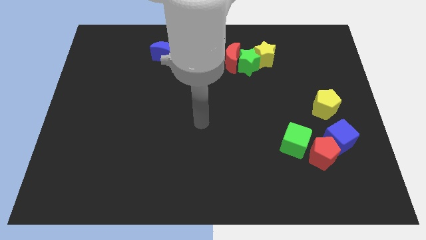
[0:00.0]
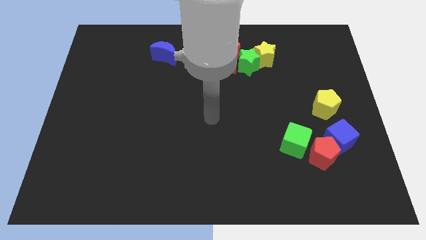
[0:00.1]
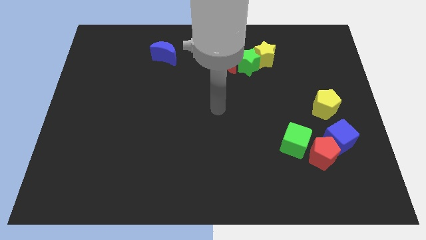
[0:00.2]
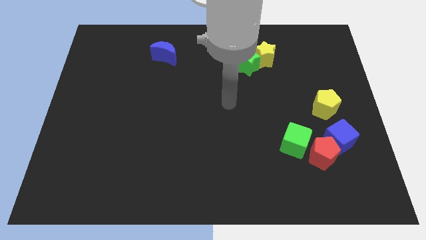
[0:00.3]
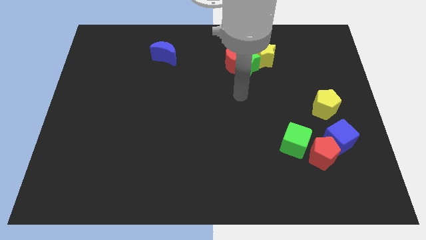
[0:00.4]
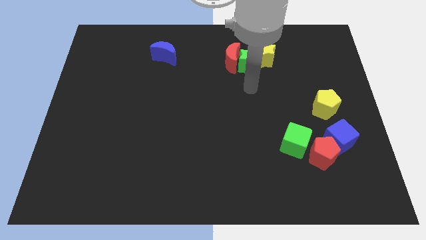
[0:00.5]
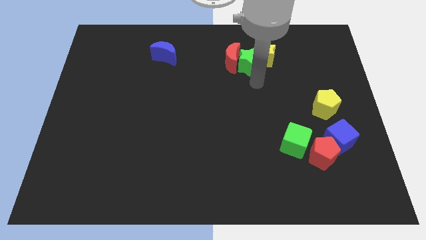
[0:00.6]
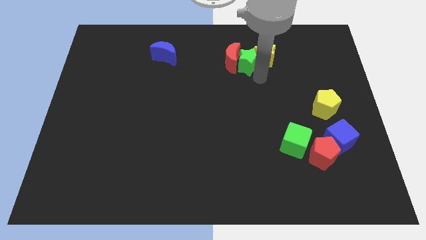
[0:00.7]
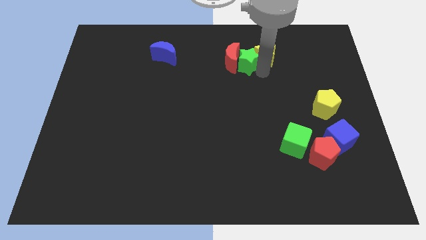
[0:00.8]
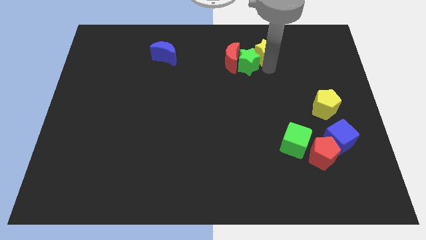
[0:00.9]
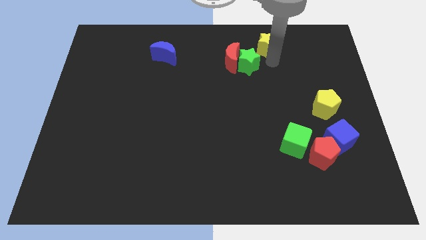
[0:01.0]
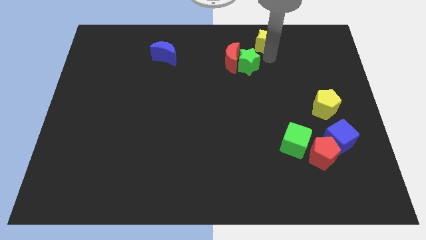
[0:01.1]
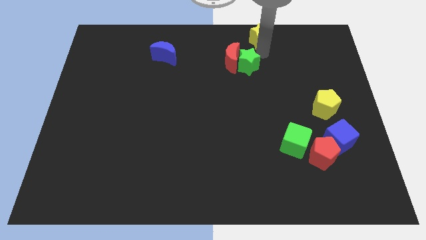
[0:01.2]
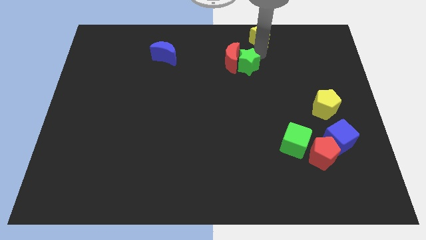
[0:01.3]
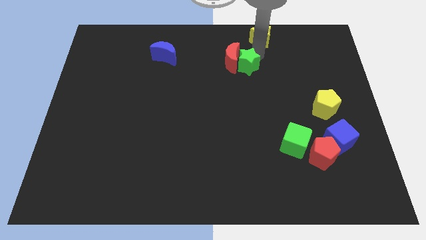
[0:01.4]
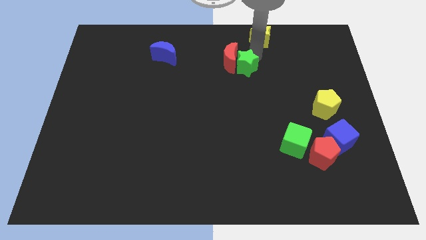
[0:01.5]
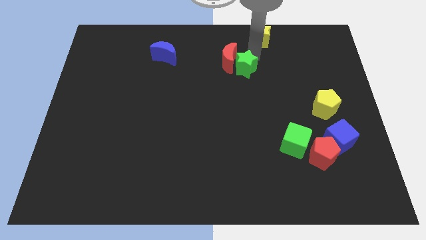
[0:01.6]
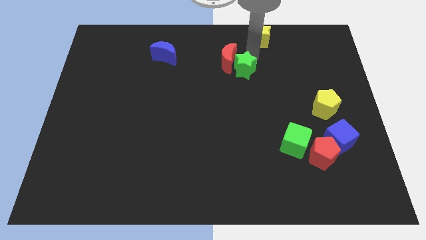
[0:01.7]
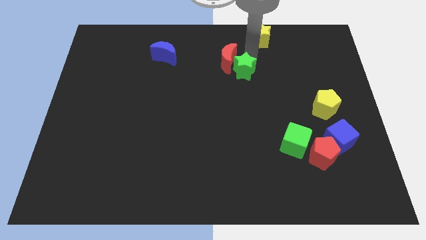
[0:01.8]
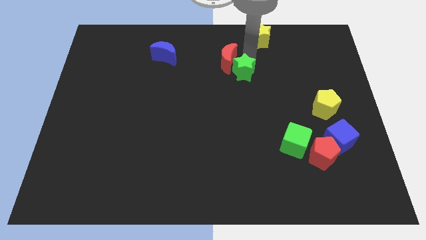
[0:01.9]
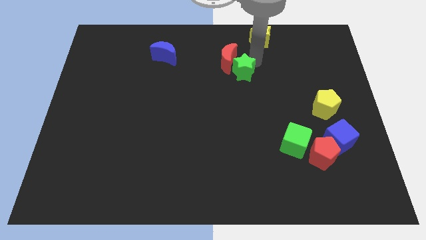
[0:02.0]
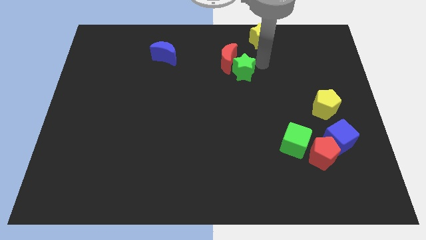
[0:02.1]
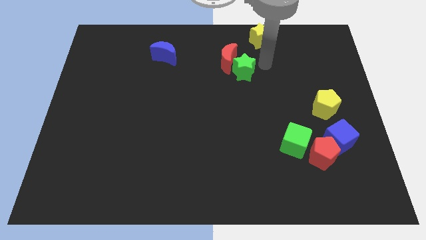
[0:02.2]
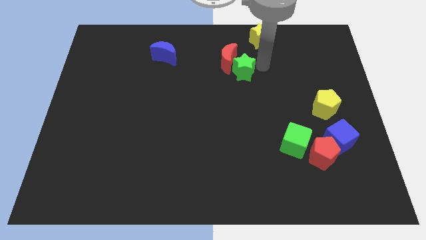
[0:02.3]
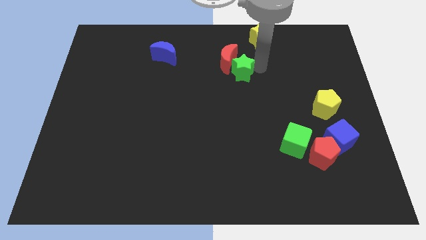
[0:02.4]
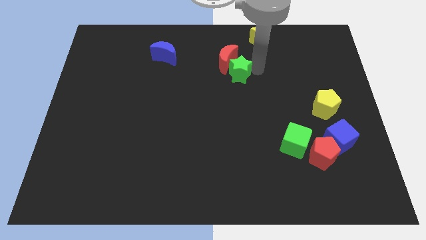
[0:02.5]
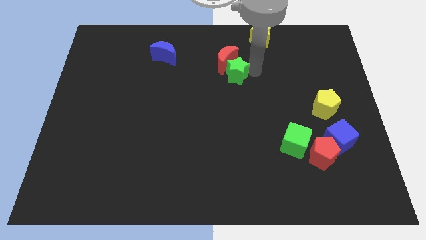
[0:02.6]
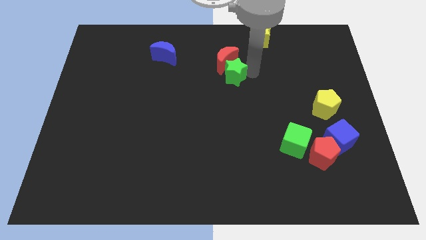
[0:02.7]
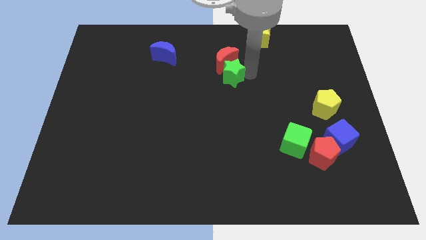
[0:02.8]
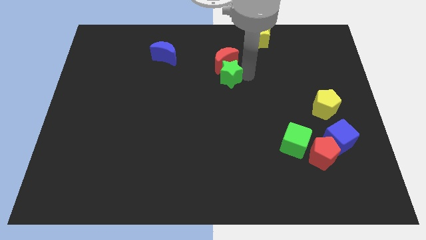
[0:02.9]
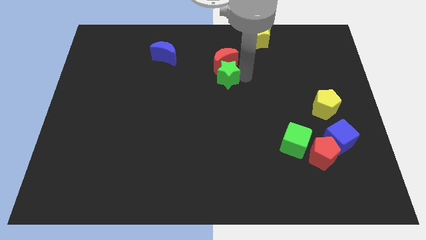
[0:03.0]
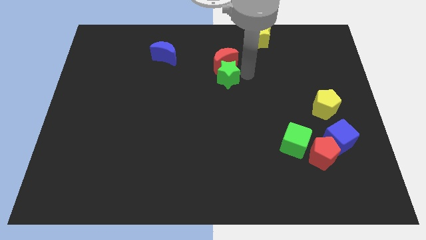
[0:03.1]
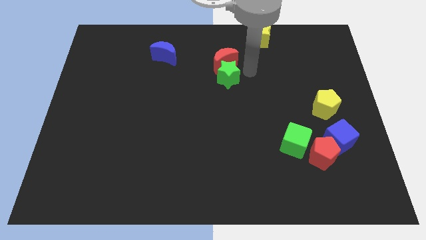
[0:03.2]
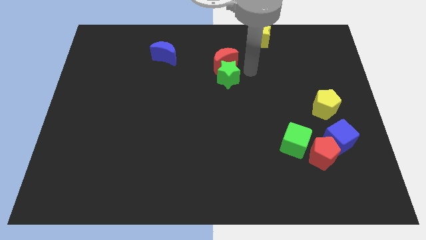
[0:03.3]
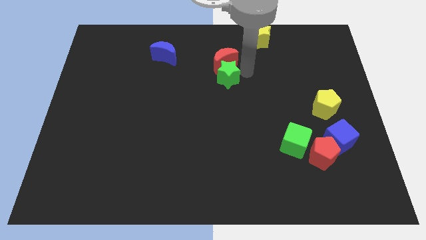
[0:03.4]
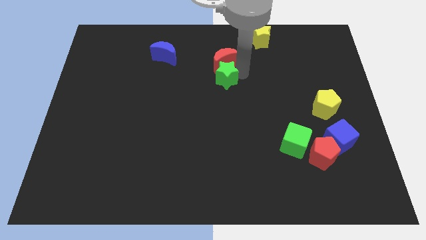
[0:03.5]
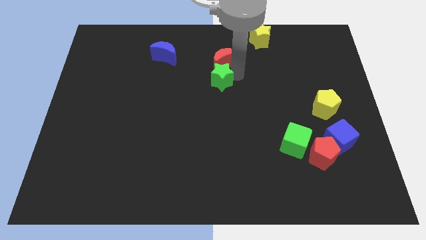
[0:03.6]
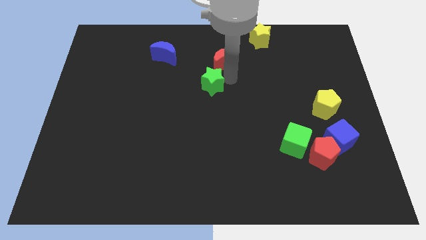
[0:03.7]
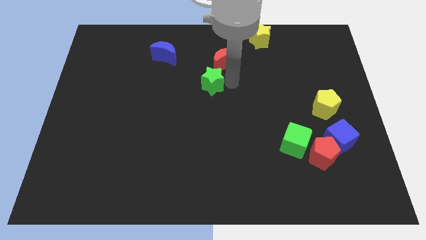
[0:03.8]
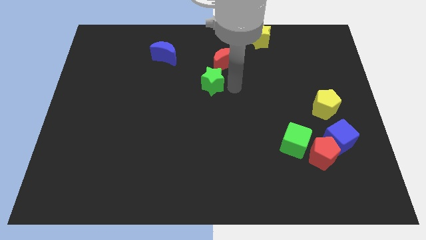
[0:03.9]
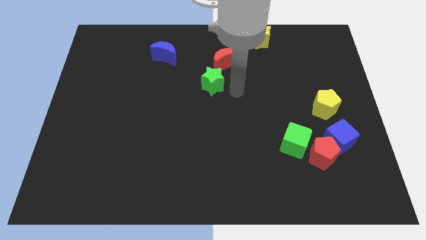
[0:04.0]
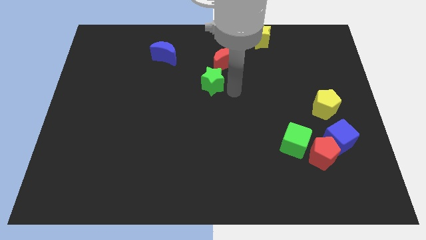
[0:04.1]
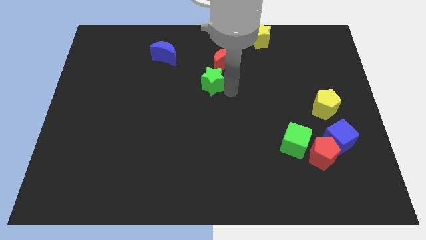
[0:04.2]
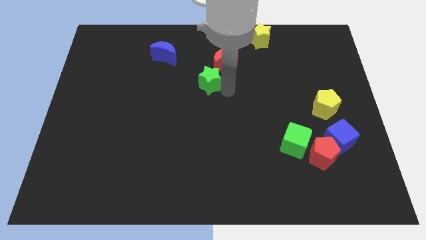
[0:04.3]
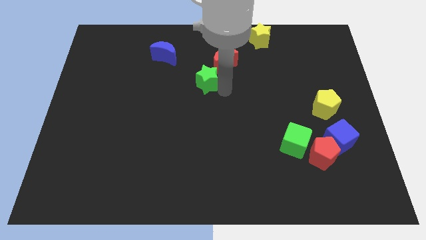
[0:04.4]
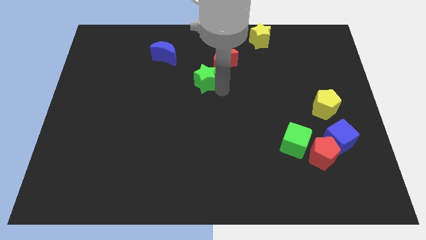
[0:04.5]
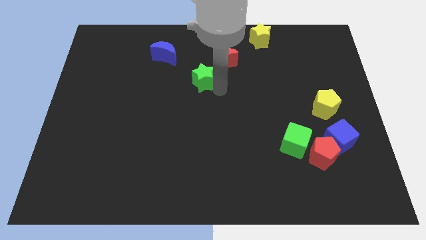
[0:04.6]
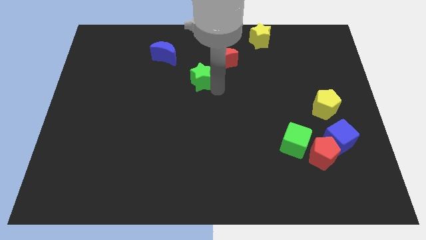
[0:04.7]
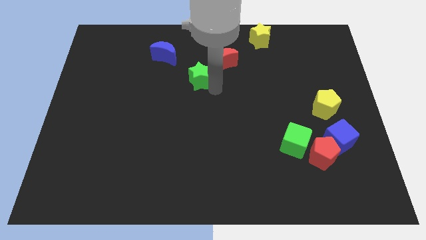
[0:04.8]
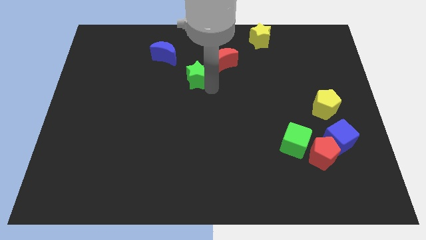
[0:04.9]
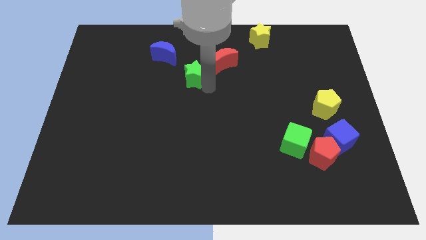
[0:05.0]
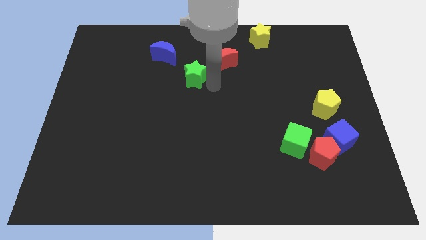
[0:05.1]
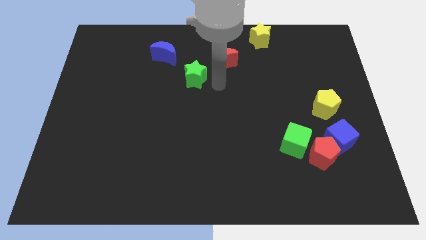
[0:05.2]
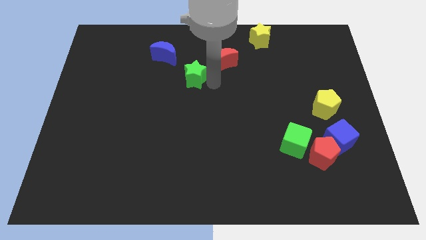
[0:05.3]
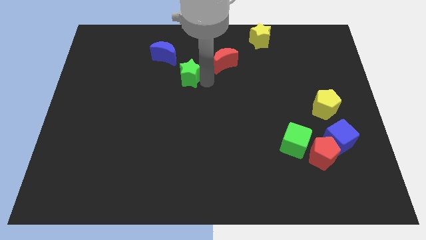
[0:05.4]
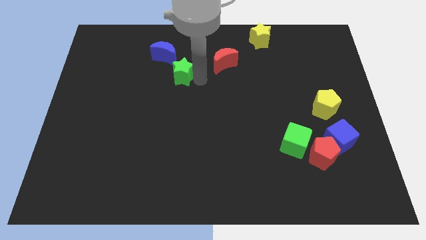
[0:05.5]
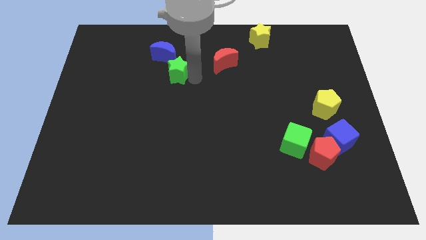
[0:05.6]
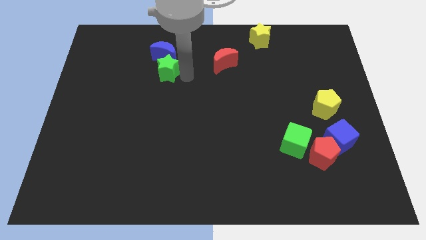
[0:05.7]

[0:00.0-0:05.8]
move the green star to the left

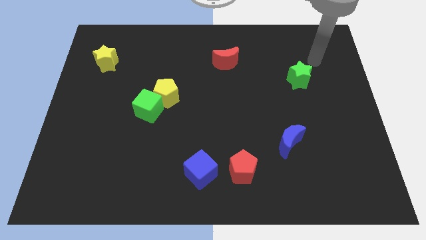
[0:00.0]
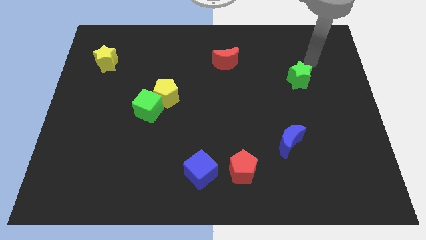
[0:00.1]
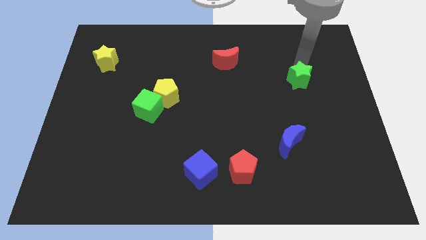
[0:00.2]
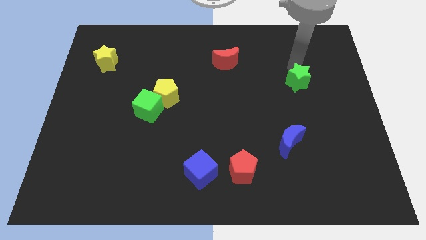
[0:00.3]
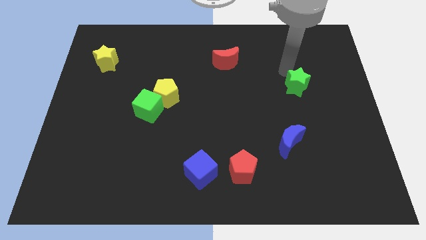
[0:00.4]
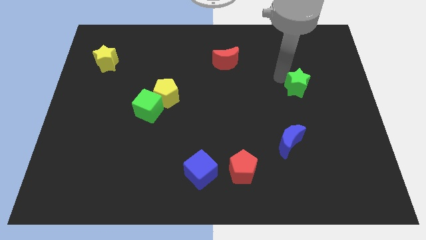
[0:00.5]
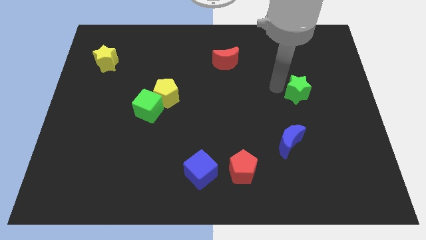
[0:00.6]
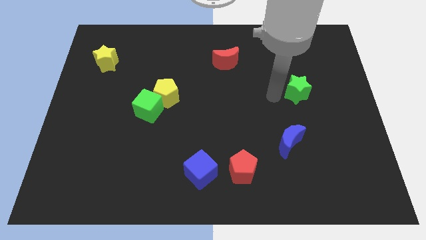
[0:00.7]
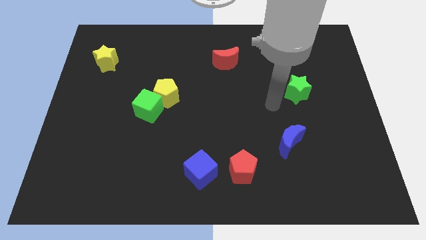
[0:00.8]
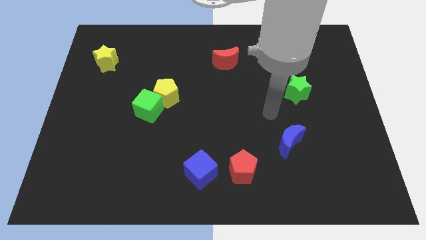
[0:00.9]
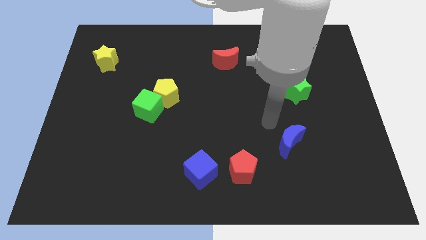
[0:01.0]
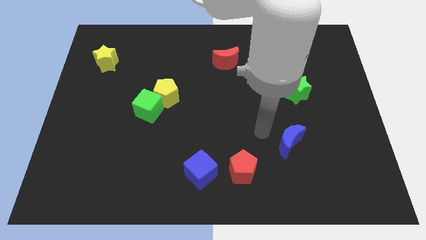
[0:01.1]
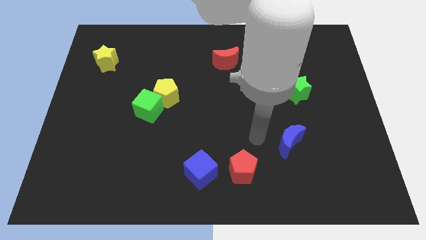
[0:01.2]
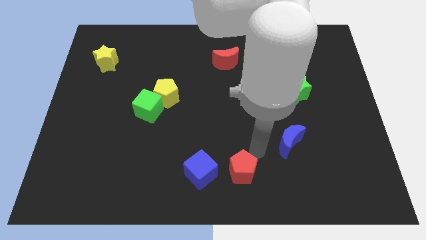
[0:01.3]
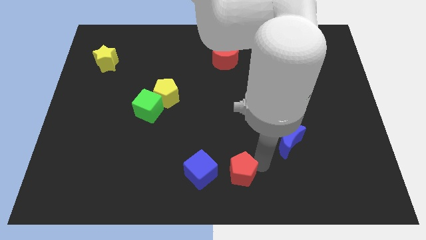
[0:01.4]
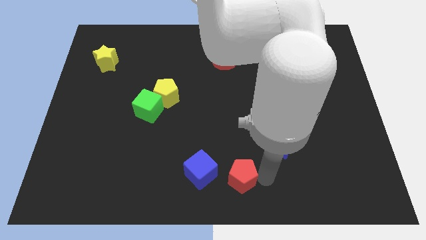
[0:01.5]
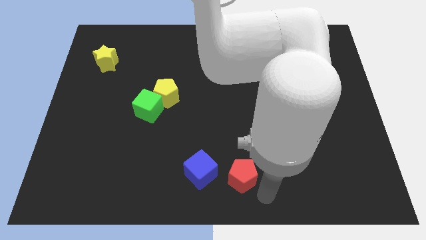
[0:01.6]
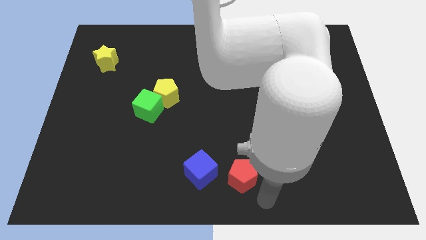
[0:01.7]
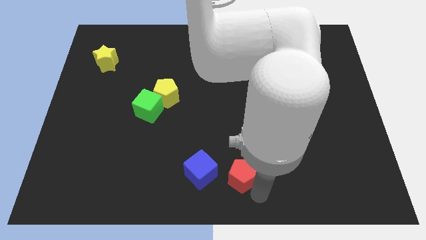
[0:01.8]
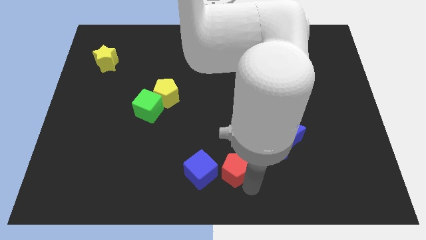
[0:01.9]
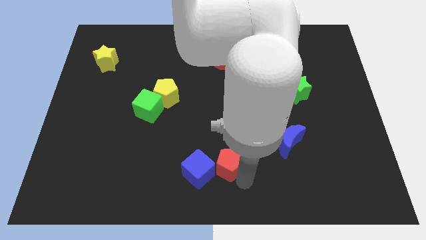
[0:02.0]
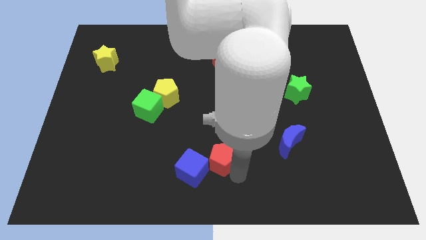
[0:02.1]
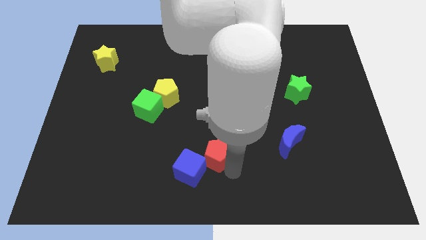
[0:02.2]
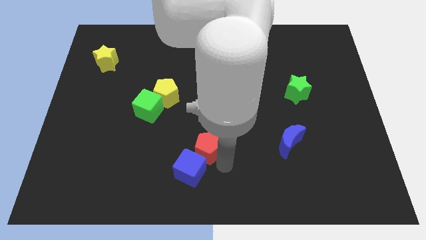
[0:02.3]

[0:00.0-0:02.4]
push the red pentagon somewhat upwards and left diagonally
